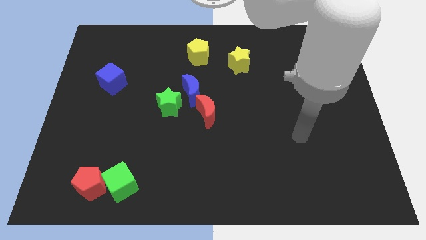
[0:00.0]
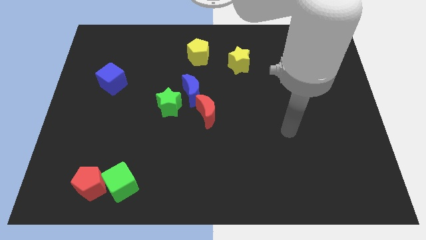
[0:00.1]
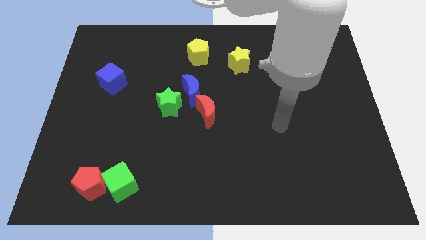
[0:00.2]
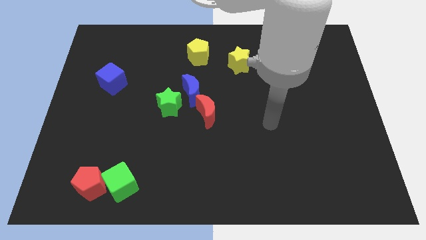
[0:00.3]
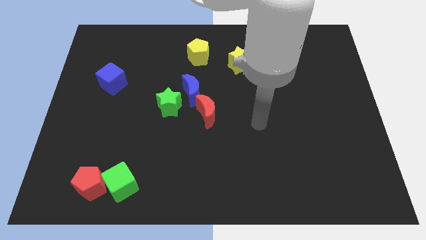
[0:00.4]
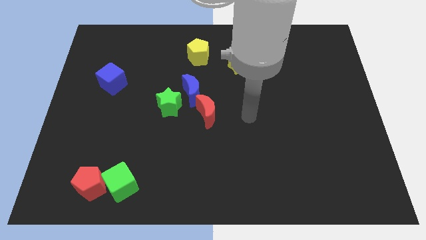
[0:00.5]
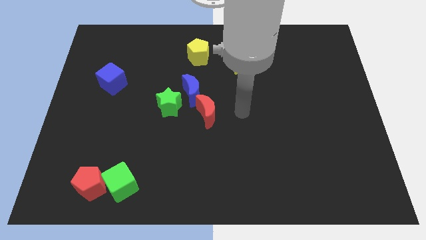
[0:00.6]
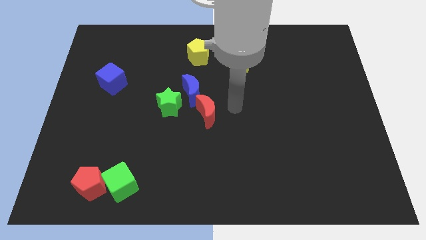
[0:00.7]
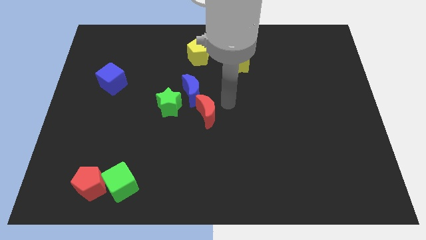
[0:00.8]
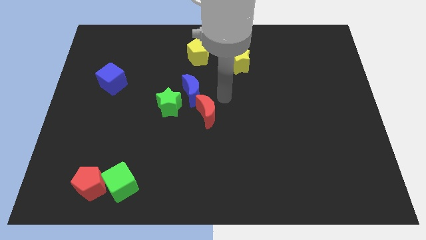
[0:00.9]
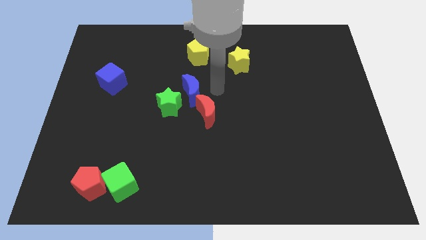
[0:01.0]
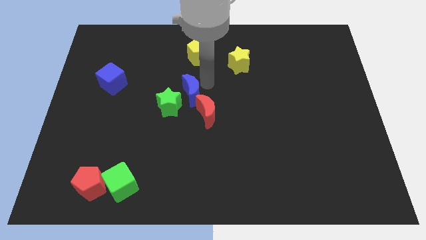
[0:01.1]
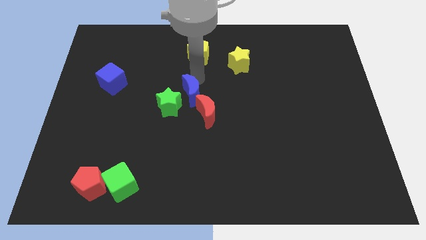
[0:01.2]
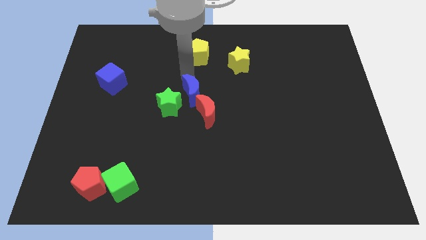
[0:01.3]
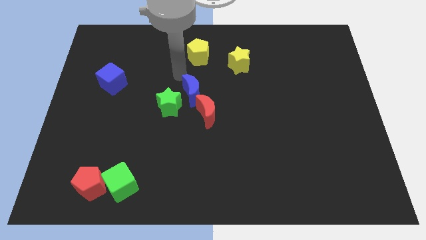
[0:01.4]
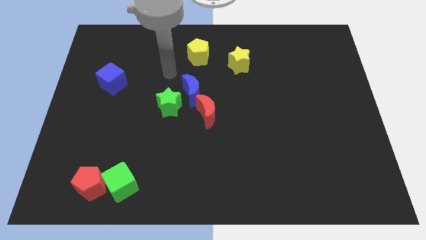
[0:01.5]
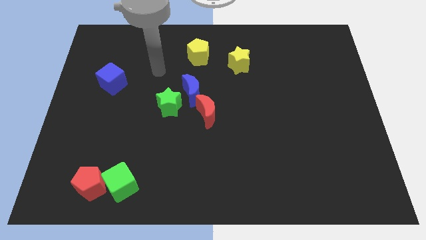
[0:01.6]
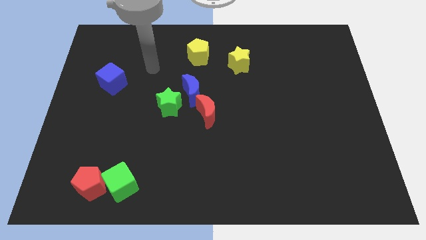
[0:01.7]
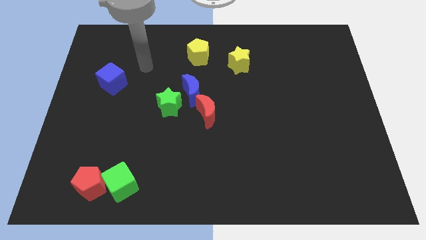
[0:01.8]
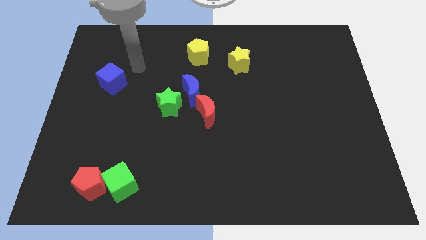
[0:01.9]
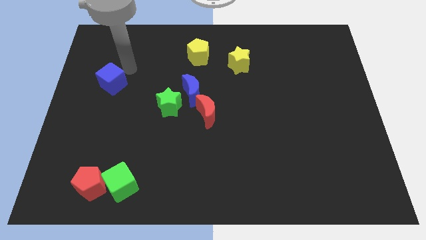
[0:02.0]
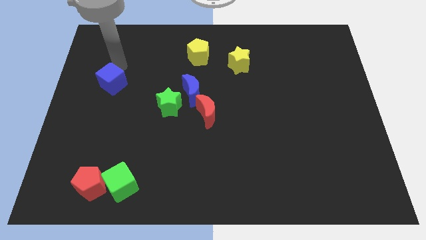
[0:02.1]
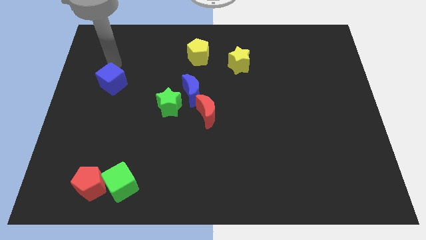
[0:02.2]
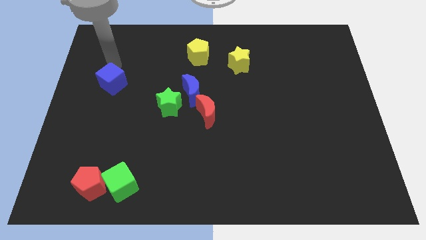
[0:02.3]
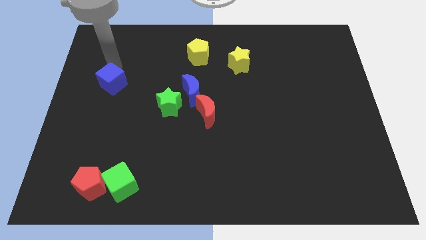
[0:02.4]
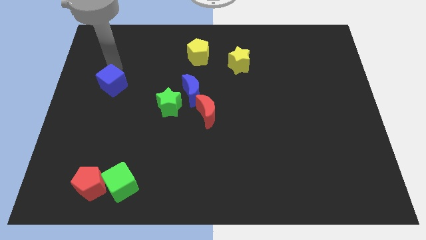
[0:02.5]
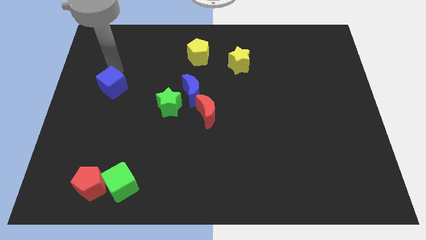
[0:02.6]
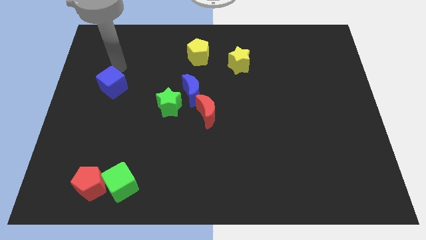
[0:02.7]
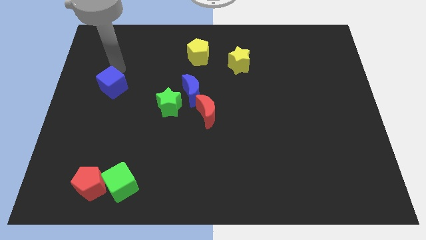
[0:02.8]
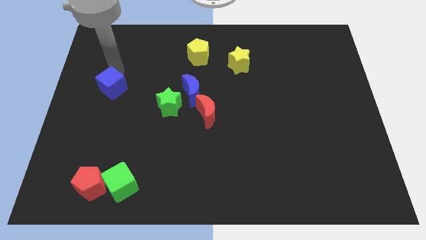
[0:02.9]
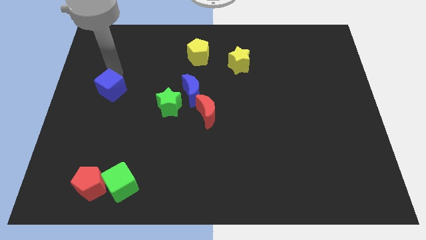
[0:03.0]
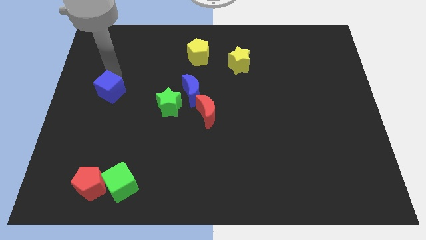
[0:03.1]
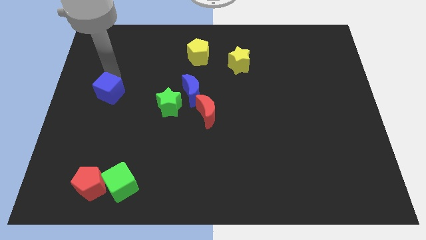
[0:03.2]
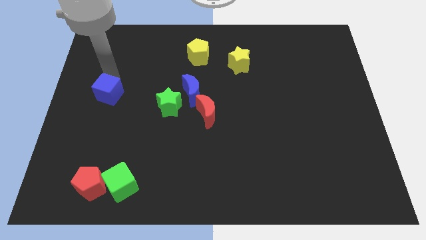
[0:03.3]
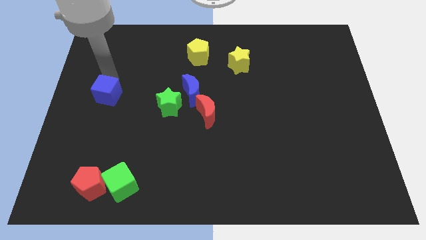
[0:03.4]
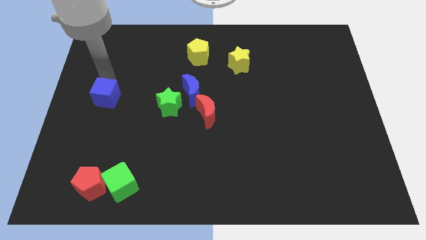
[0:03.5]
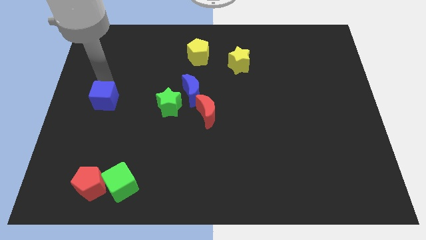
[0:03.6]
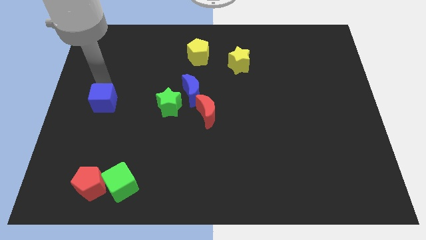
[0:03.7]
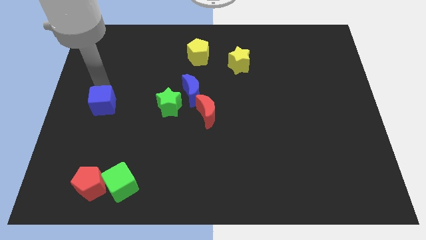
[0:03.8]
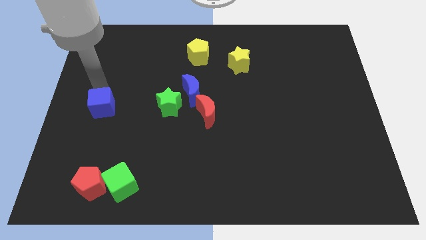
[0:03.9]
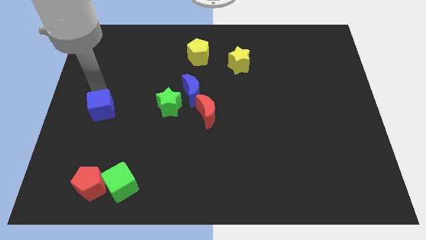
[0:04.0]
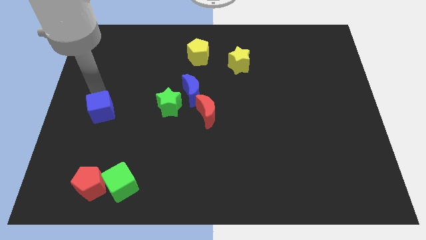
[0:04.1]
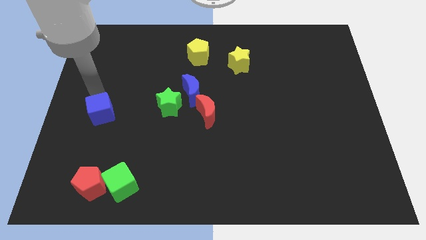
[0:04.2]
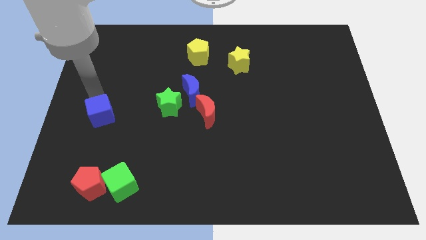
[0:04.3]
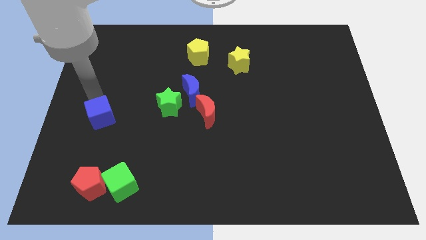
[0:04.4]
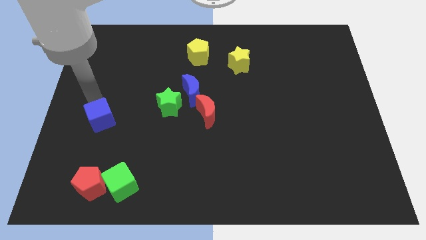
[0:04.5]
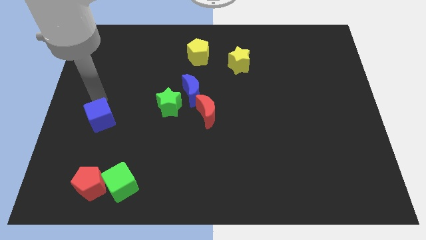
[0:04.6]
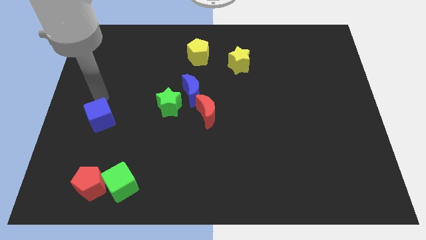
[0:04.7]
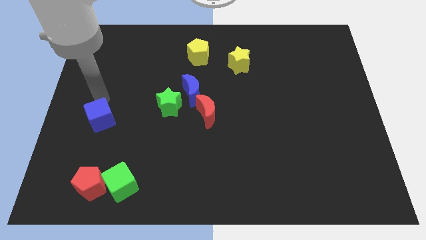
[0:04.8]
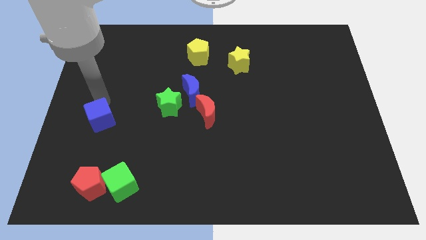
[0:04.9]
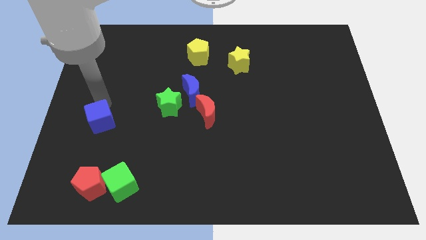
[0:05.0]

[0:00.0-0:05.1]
slide the blue cube above the red pentagon

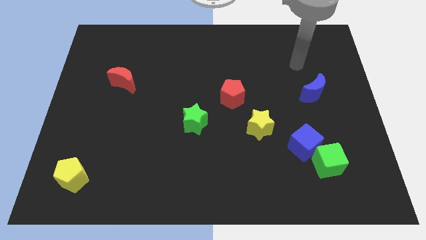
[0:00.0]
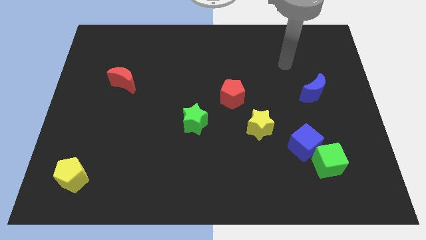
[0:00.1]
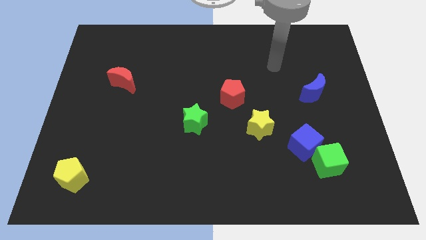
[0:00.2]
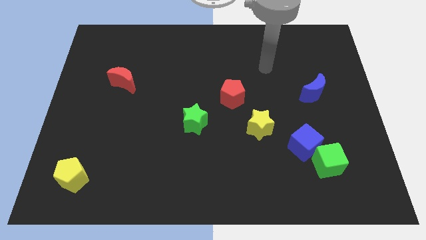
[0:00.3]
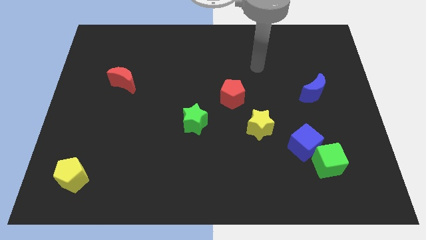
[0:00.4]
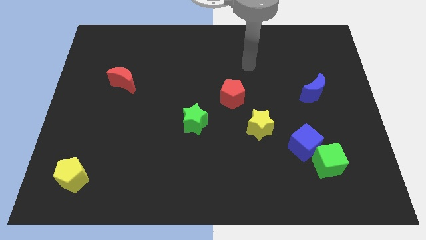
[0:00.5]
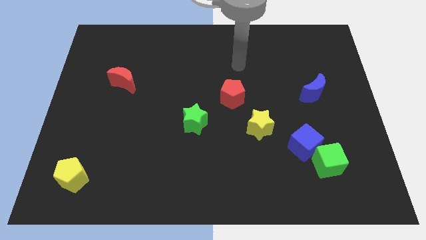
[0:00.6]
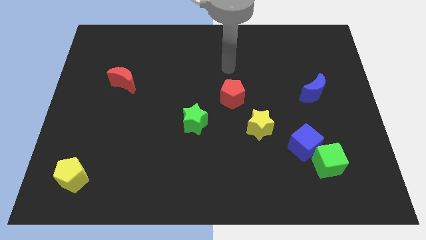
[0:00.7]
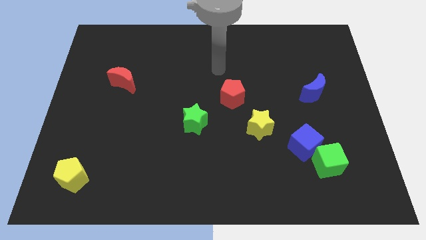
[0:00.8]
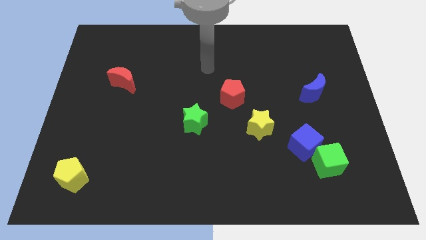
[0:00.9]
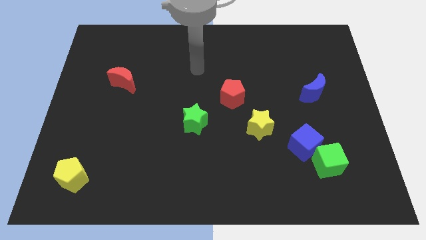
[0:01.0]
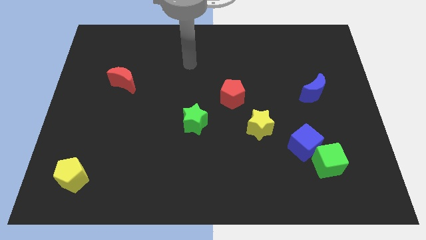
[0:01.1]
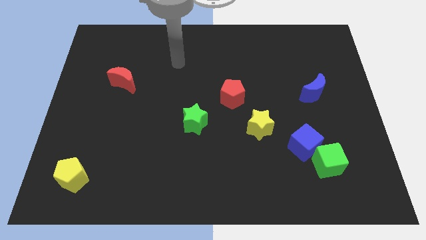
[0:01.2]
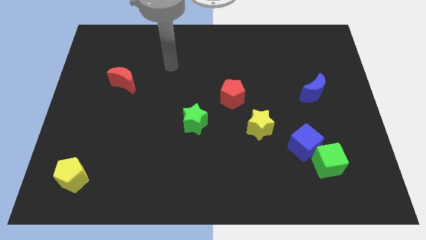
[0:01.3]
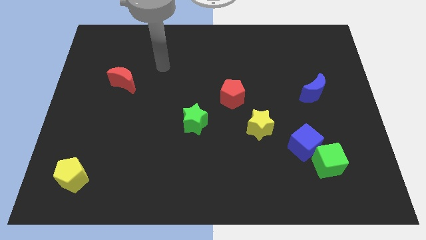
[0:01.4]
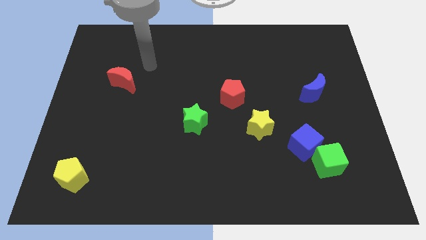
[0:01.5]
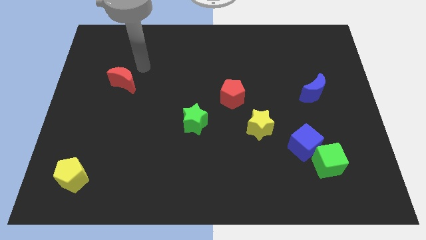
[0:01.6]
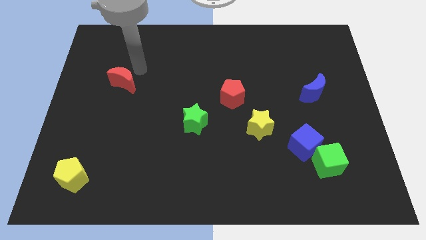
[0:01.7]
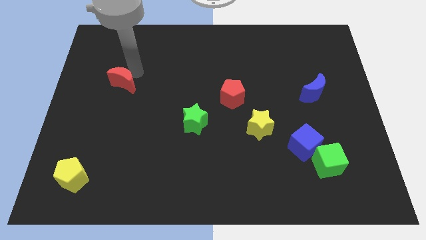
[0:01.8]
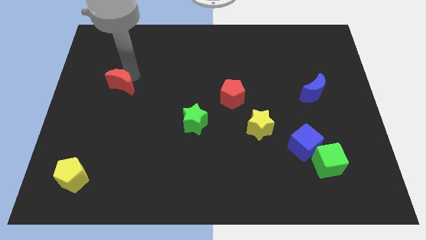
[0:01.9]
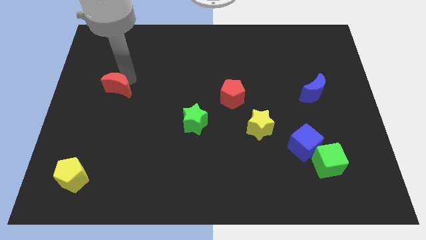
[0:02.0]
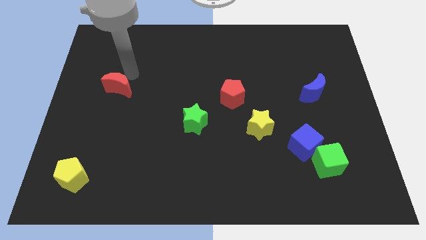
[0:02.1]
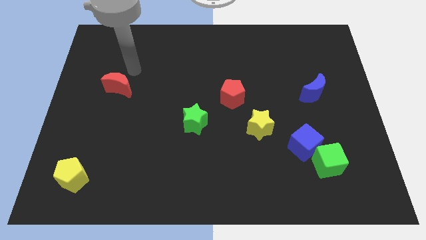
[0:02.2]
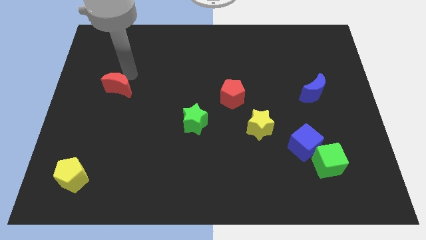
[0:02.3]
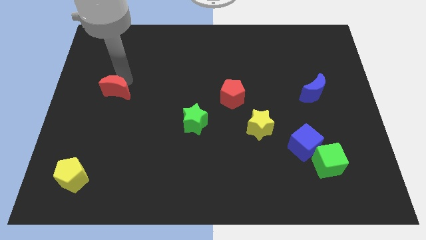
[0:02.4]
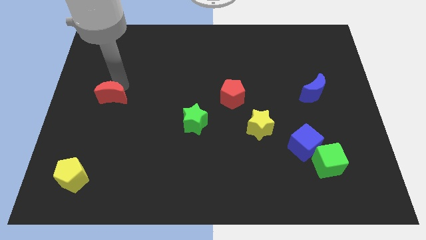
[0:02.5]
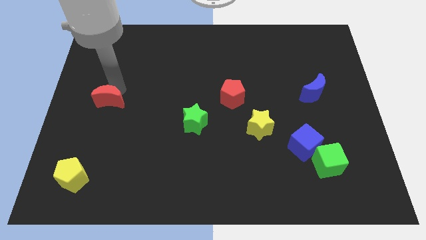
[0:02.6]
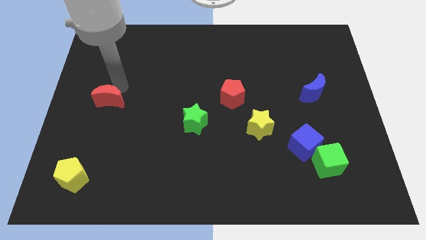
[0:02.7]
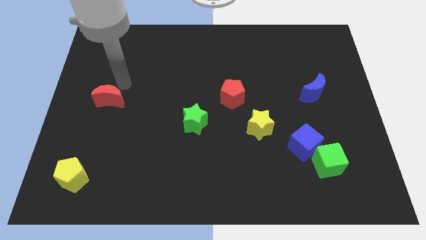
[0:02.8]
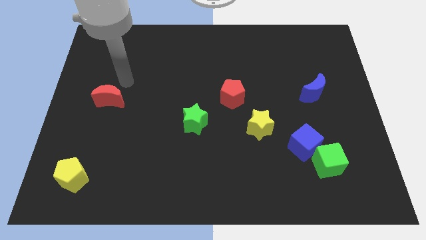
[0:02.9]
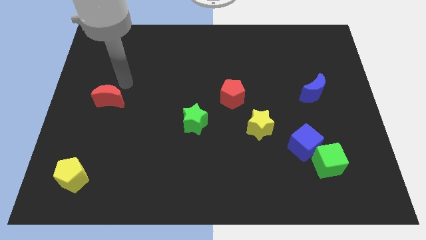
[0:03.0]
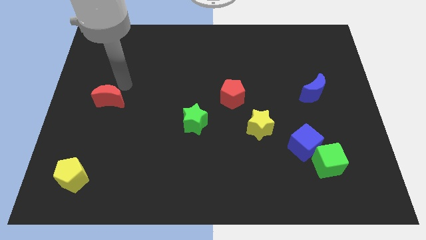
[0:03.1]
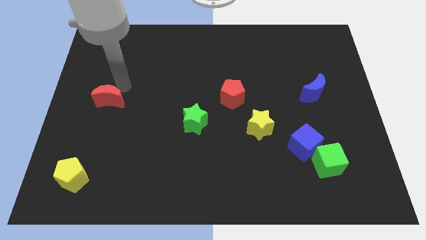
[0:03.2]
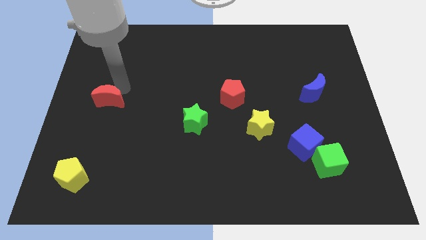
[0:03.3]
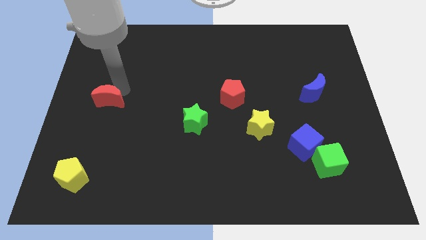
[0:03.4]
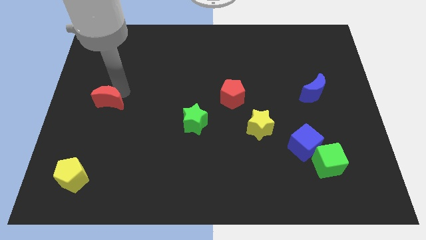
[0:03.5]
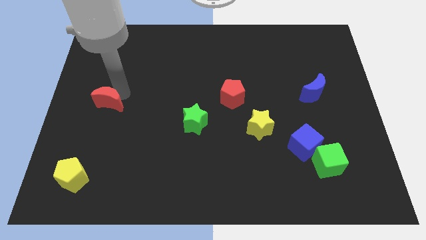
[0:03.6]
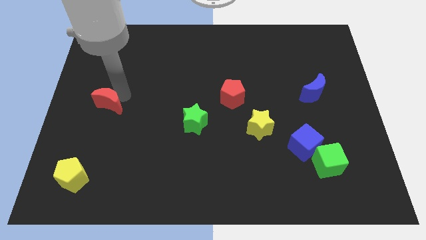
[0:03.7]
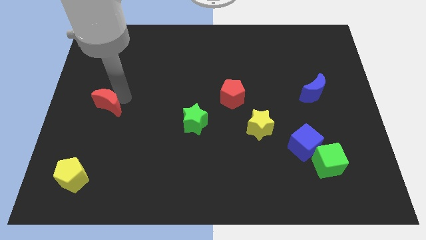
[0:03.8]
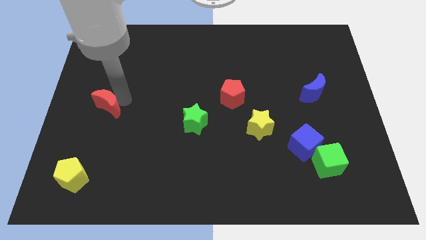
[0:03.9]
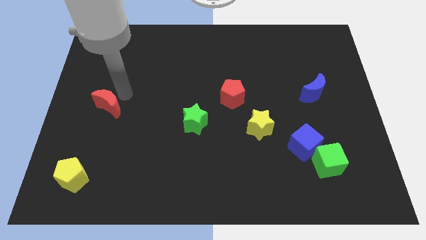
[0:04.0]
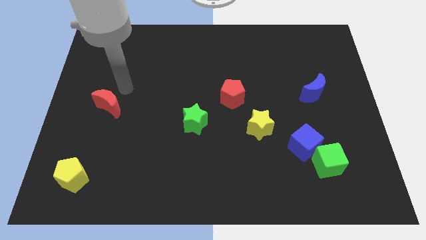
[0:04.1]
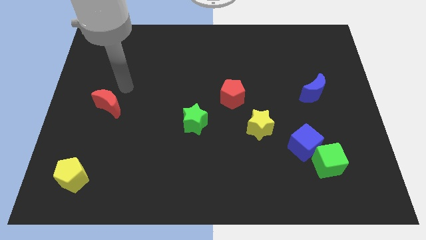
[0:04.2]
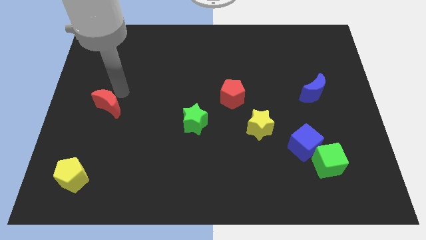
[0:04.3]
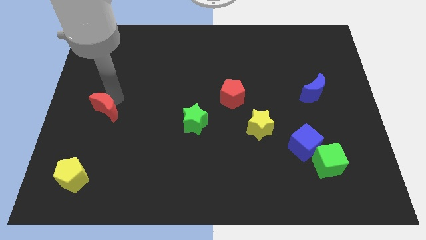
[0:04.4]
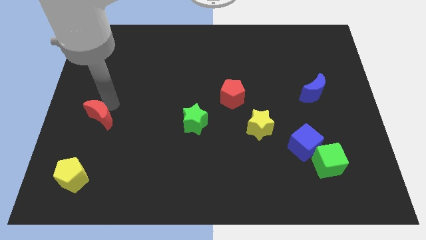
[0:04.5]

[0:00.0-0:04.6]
put the red moon to the top of the yellow pentagon
